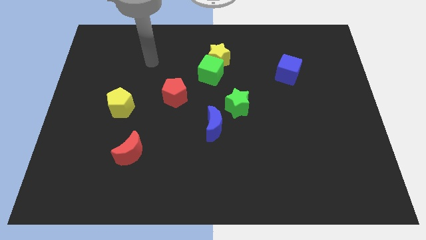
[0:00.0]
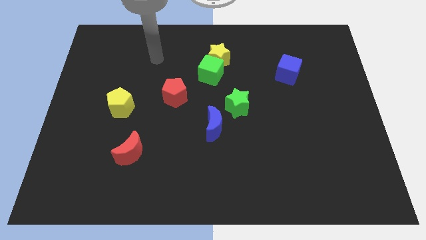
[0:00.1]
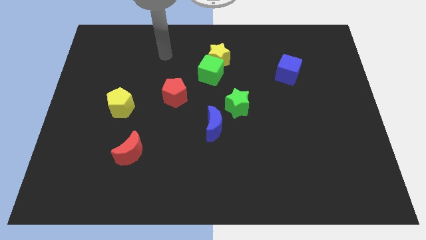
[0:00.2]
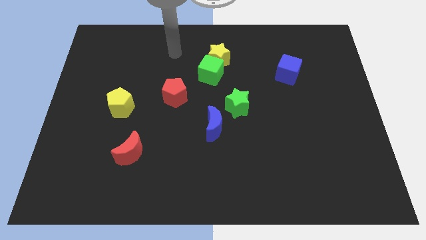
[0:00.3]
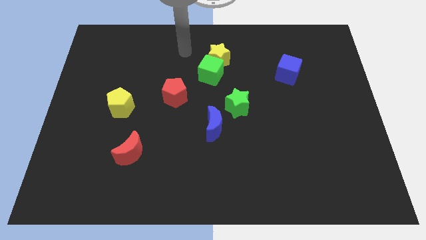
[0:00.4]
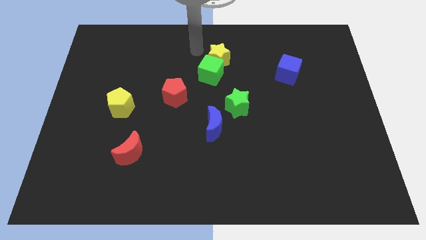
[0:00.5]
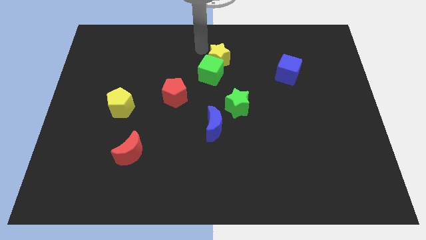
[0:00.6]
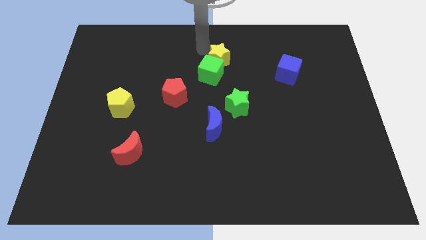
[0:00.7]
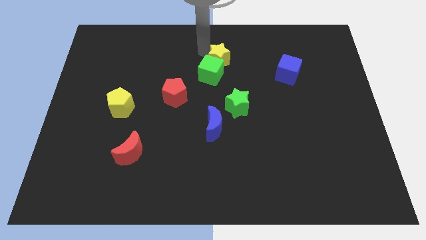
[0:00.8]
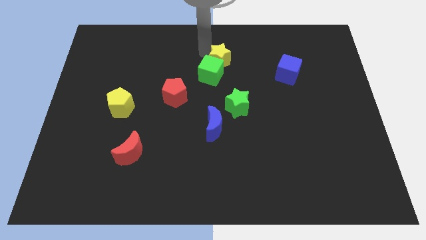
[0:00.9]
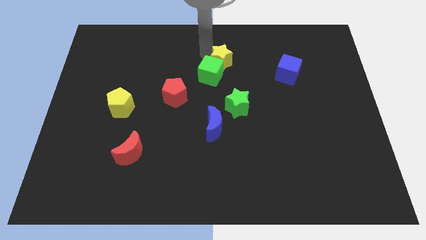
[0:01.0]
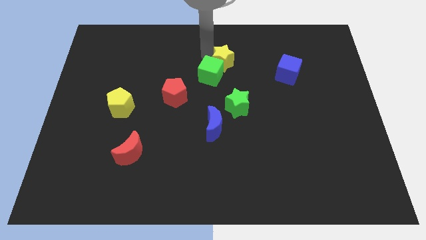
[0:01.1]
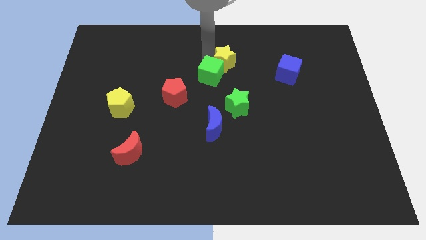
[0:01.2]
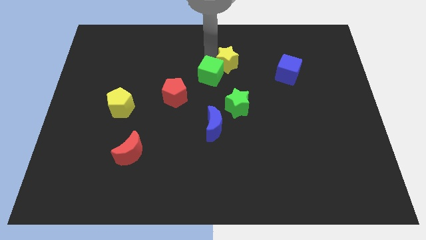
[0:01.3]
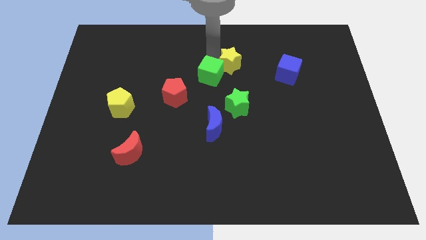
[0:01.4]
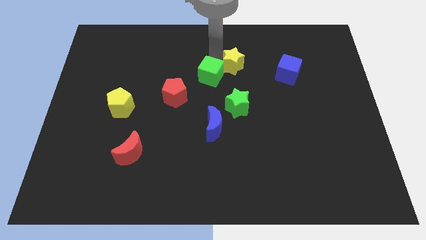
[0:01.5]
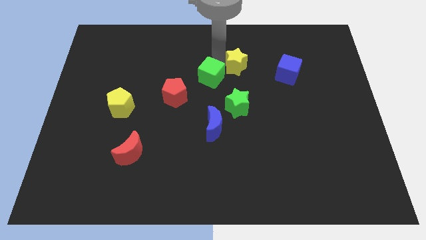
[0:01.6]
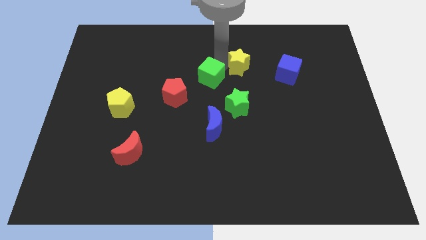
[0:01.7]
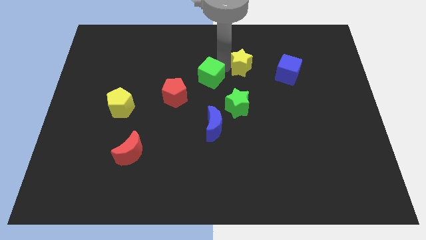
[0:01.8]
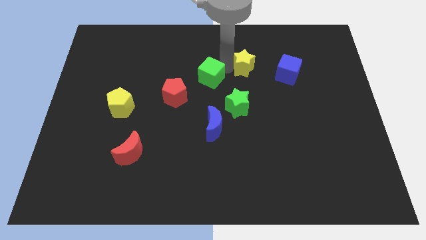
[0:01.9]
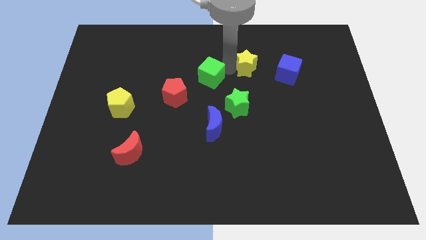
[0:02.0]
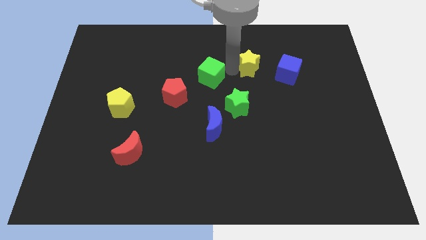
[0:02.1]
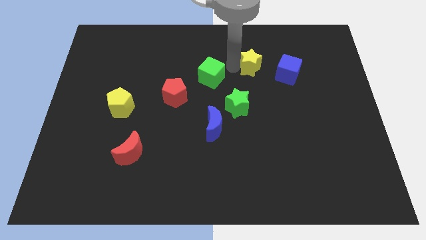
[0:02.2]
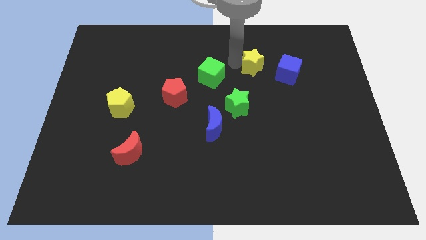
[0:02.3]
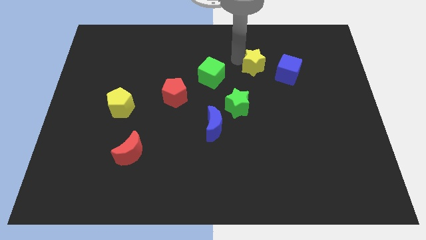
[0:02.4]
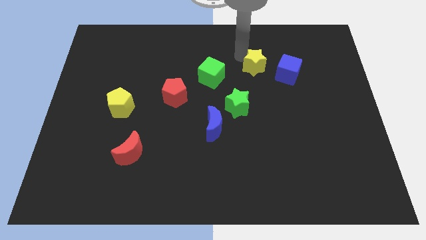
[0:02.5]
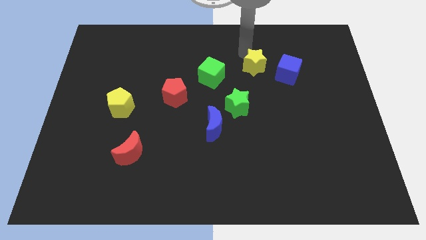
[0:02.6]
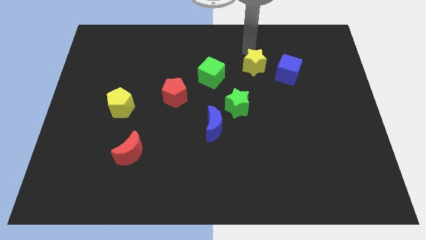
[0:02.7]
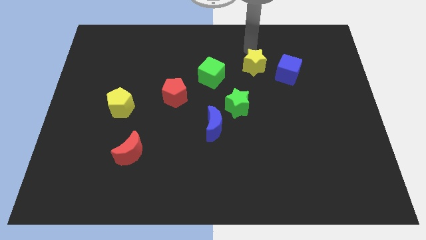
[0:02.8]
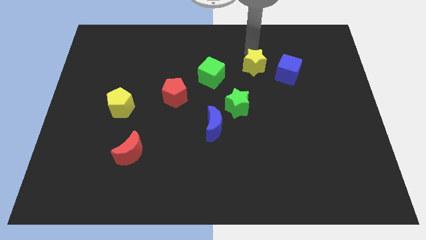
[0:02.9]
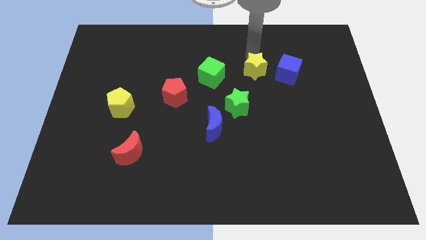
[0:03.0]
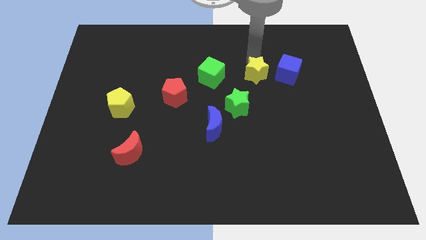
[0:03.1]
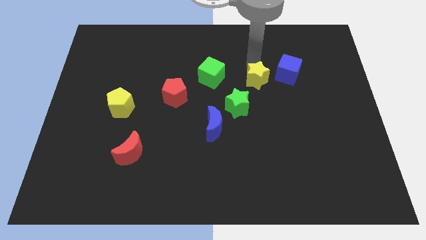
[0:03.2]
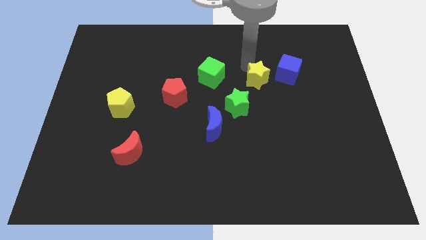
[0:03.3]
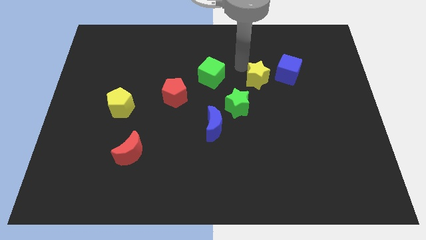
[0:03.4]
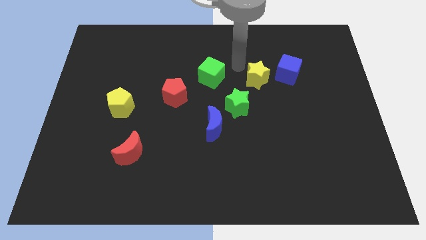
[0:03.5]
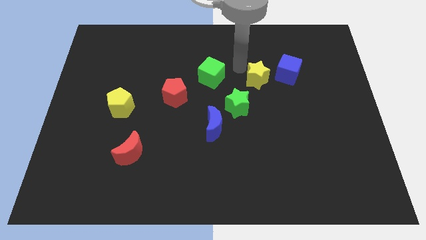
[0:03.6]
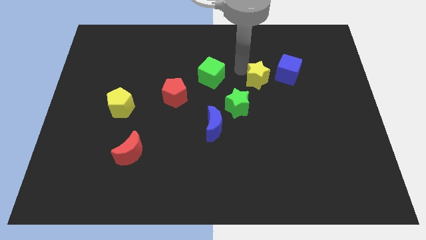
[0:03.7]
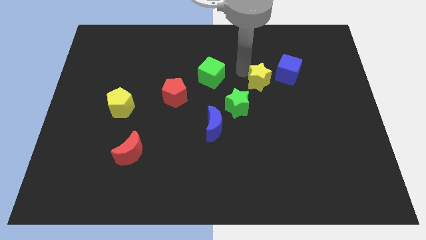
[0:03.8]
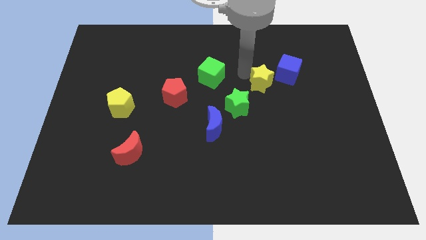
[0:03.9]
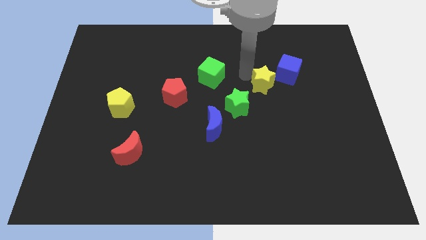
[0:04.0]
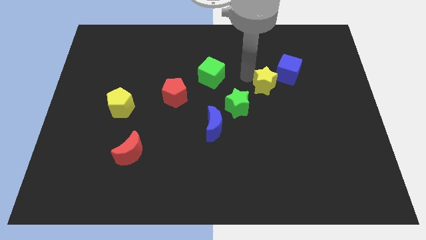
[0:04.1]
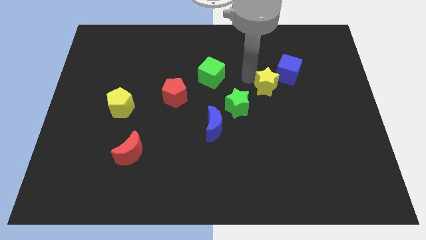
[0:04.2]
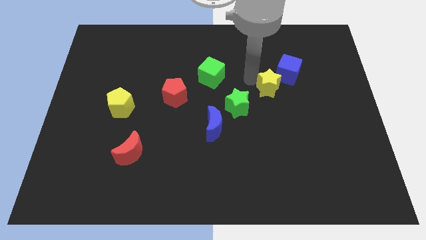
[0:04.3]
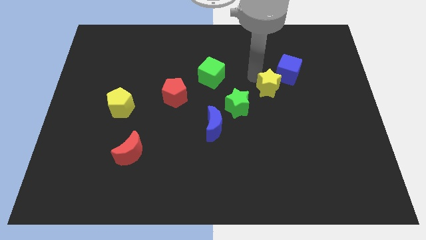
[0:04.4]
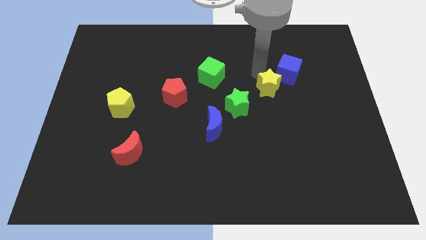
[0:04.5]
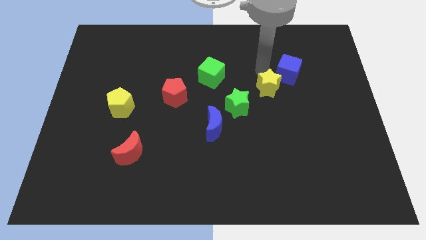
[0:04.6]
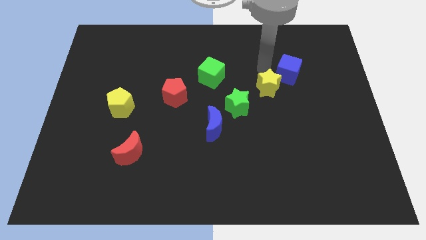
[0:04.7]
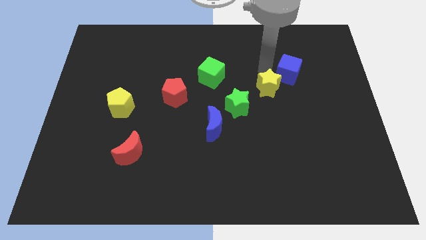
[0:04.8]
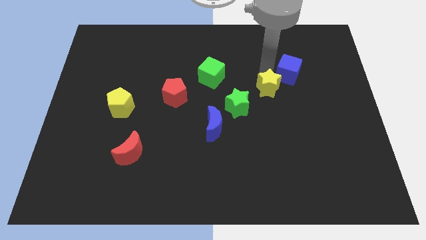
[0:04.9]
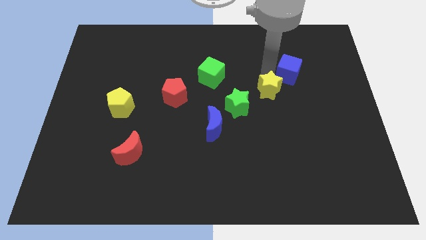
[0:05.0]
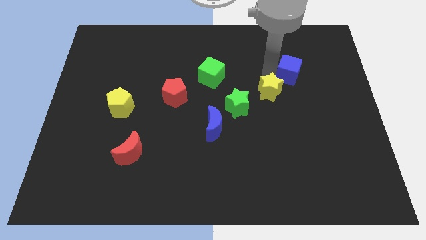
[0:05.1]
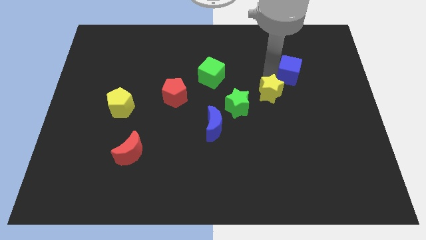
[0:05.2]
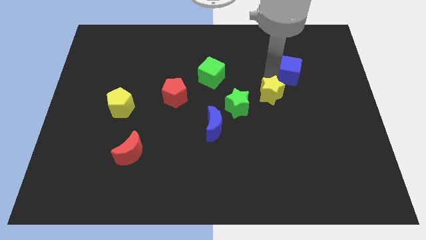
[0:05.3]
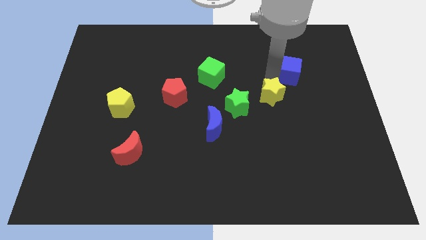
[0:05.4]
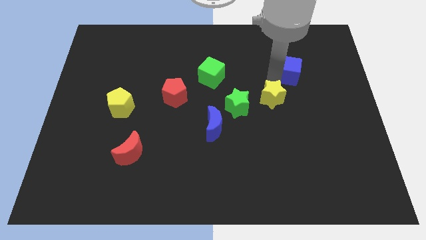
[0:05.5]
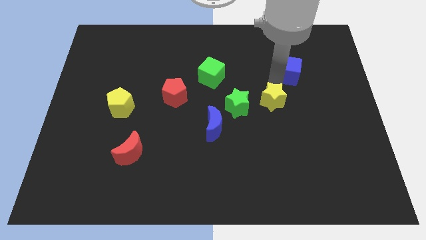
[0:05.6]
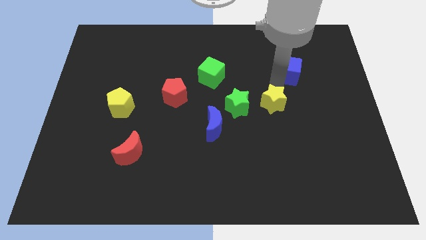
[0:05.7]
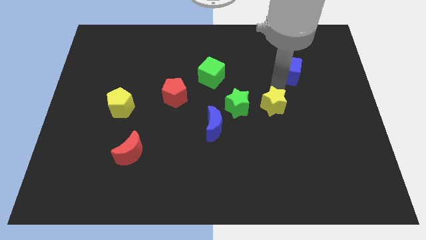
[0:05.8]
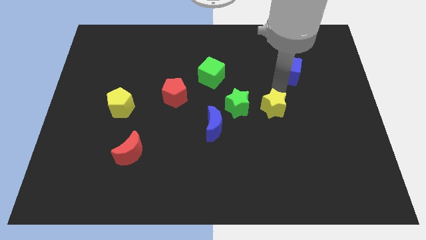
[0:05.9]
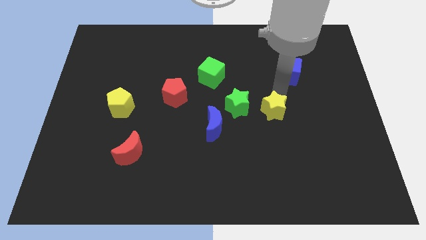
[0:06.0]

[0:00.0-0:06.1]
put the yellow star diagonally down and to the right of the green star

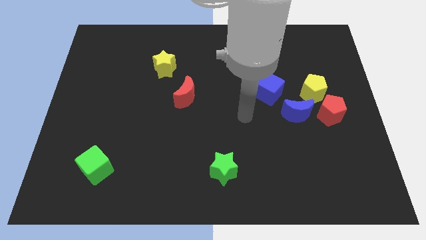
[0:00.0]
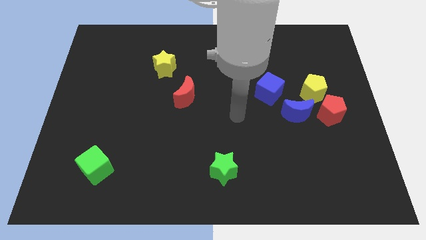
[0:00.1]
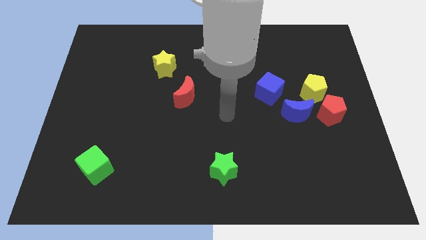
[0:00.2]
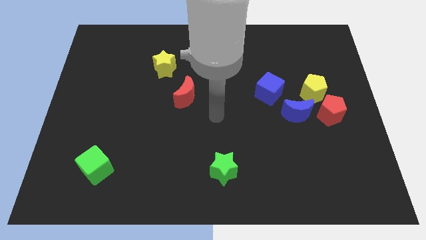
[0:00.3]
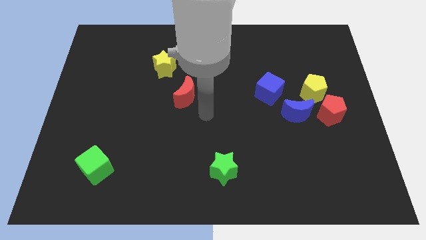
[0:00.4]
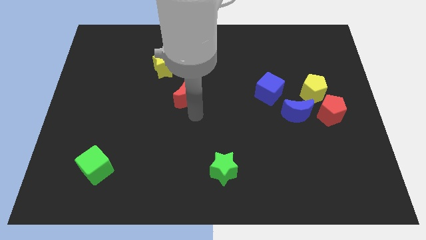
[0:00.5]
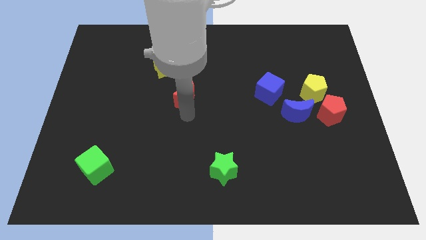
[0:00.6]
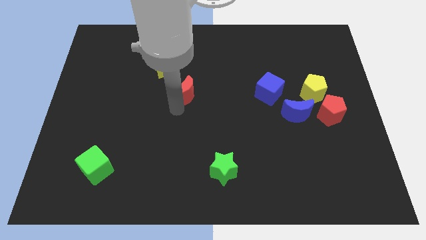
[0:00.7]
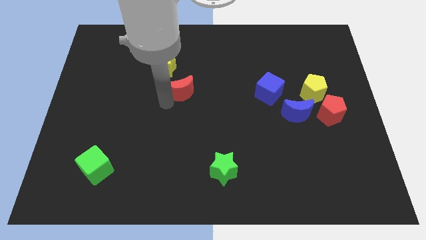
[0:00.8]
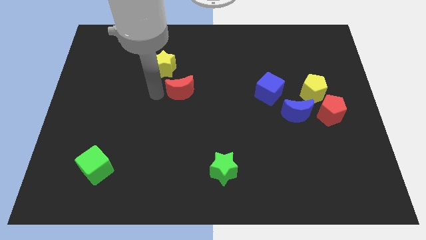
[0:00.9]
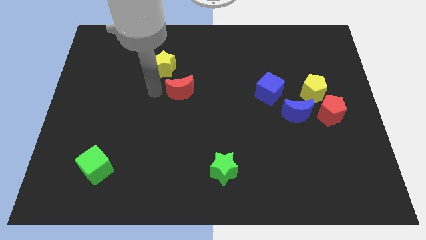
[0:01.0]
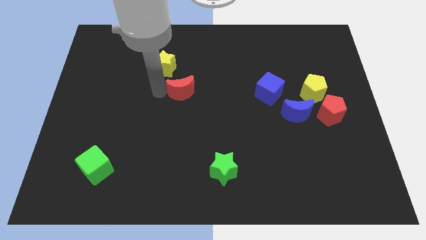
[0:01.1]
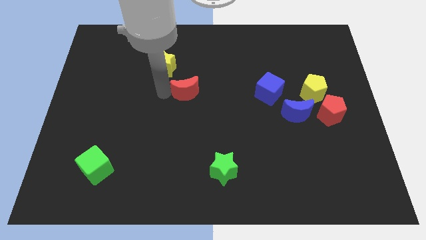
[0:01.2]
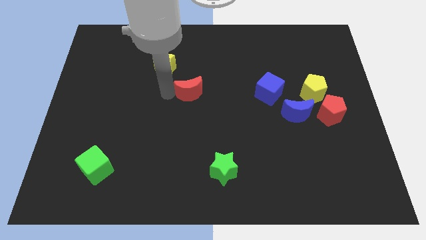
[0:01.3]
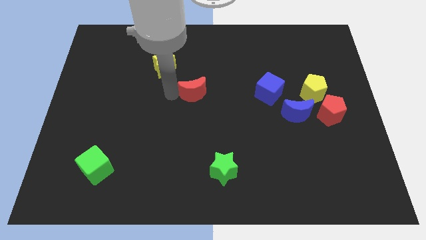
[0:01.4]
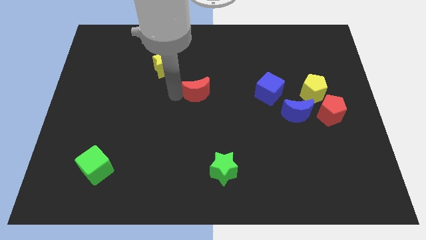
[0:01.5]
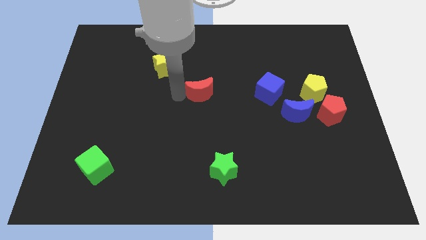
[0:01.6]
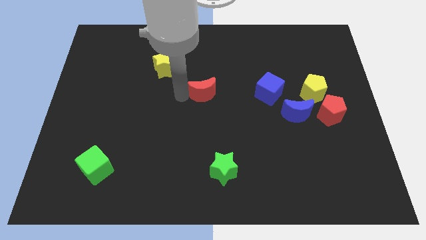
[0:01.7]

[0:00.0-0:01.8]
slide the red moon to the left of the blue cube
